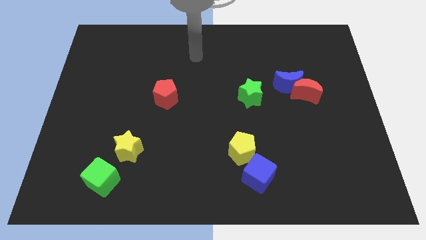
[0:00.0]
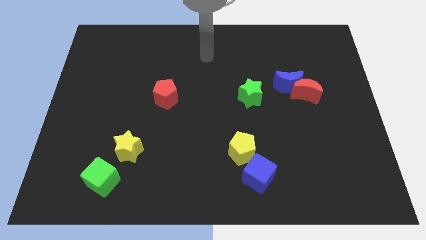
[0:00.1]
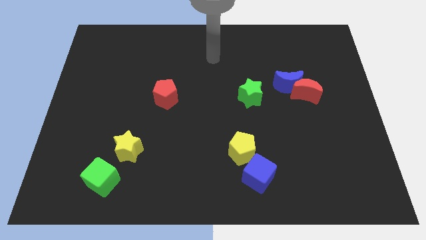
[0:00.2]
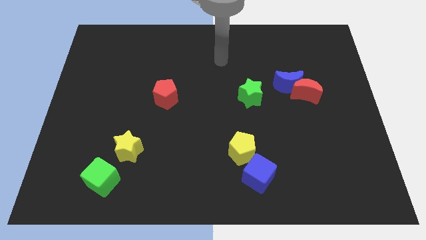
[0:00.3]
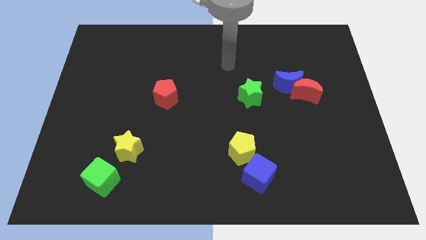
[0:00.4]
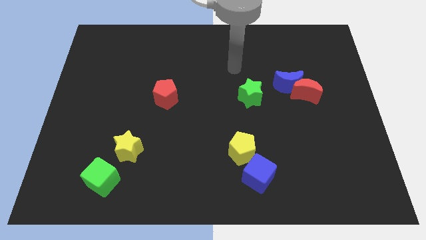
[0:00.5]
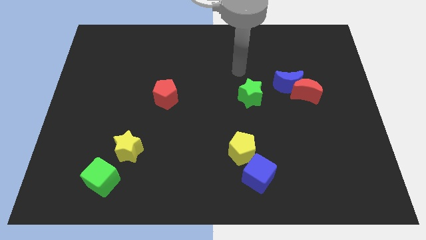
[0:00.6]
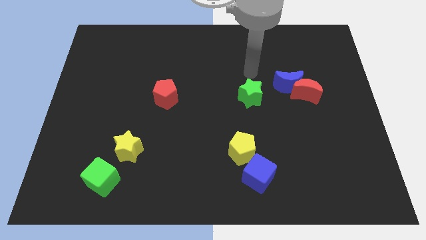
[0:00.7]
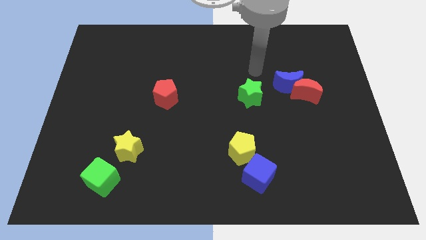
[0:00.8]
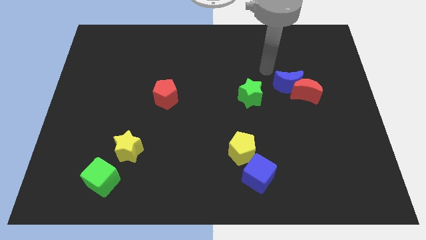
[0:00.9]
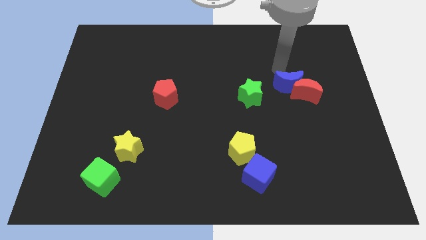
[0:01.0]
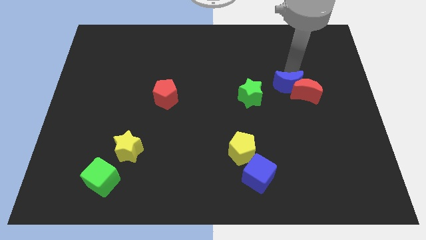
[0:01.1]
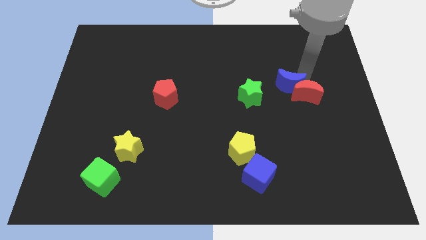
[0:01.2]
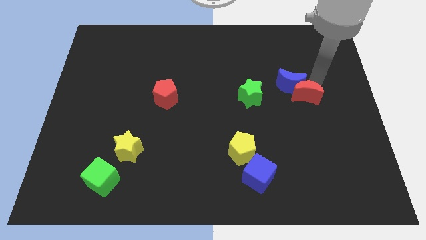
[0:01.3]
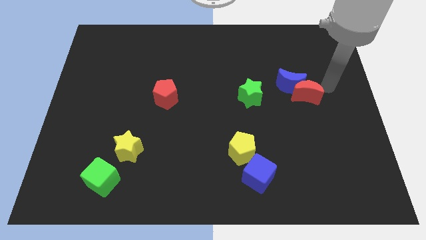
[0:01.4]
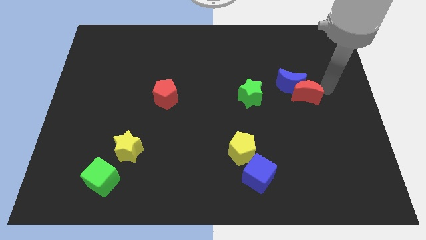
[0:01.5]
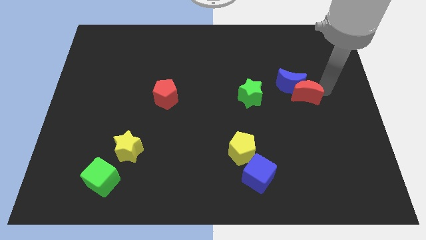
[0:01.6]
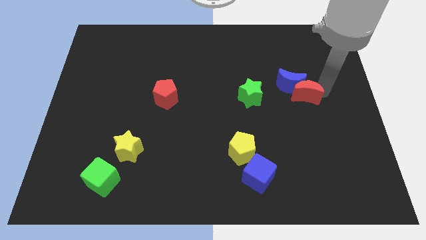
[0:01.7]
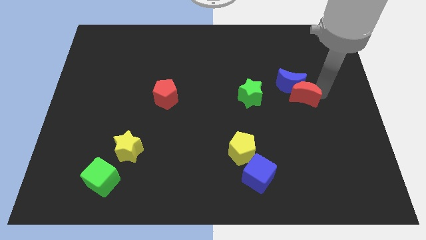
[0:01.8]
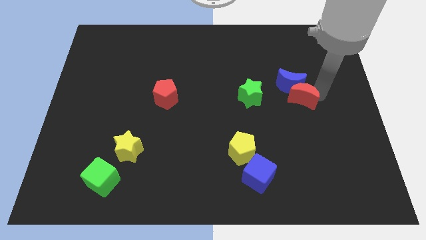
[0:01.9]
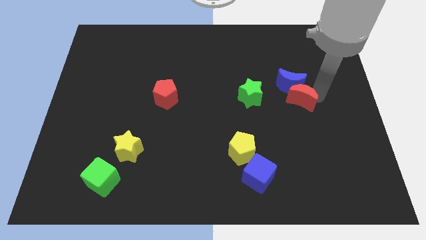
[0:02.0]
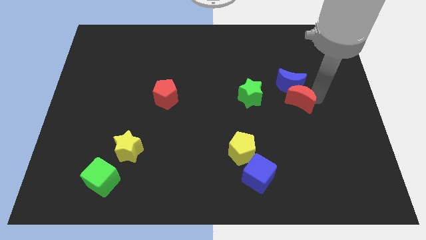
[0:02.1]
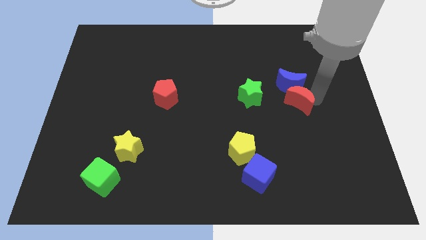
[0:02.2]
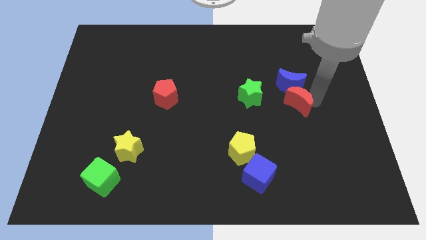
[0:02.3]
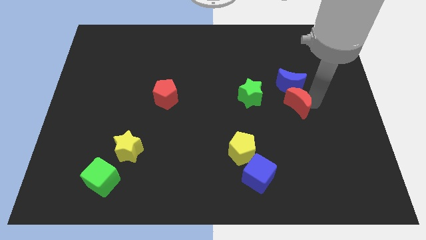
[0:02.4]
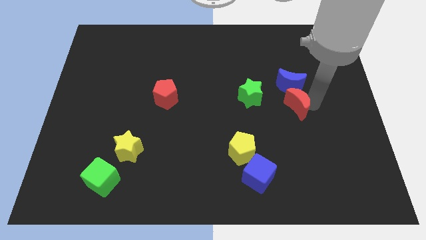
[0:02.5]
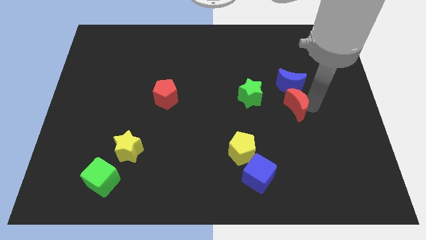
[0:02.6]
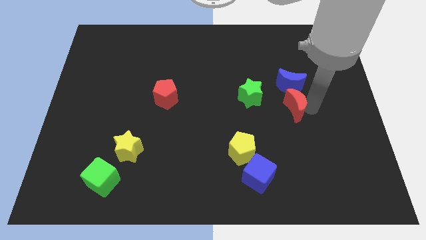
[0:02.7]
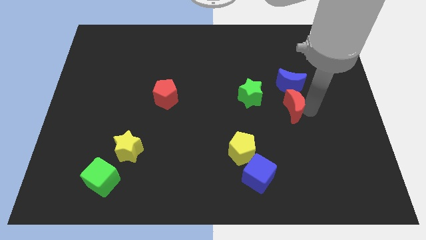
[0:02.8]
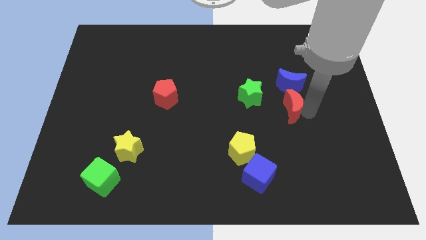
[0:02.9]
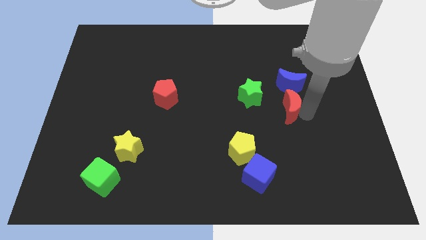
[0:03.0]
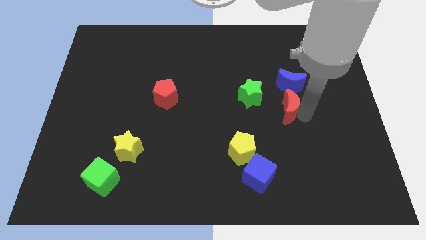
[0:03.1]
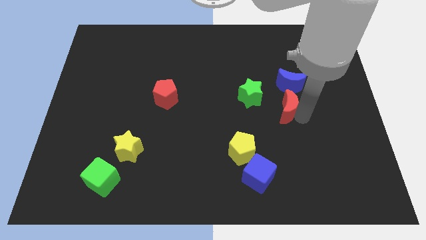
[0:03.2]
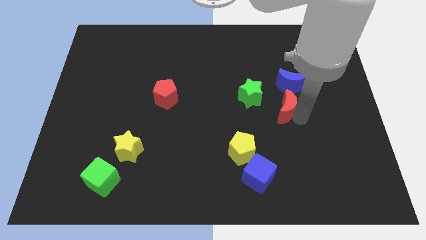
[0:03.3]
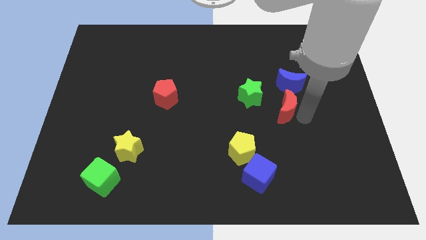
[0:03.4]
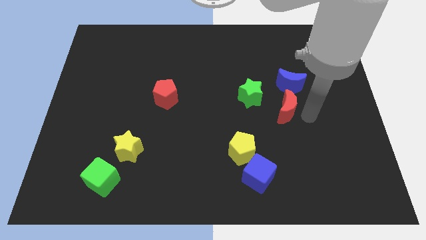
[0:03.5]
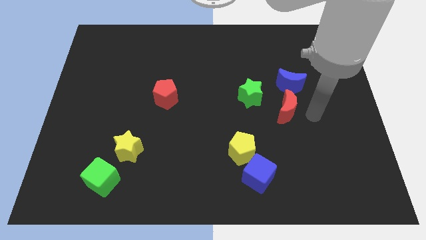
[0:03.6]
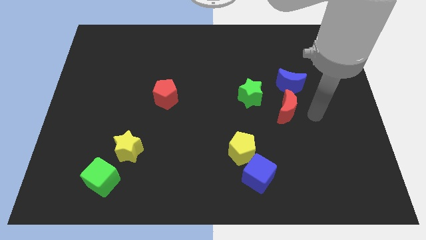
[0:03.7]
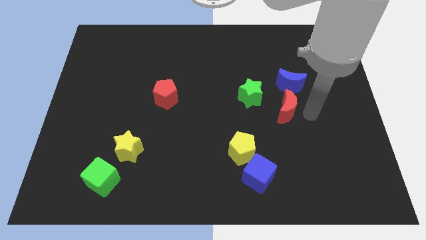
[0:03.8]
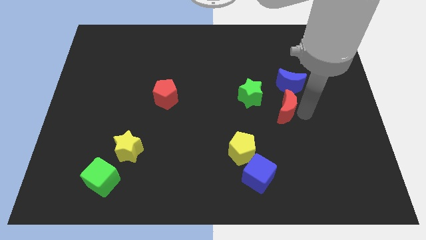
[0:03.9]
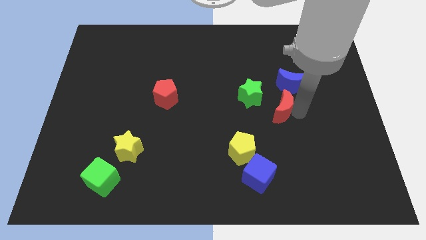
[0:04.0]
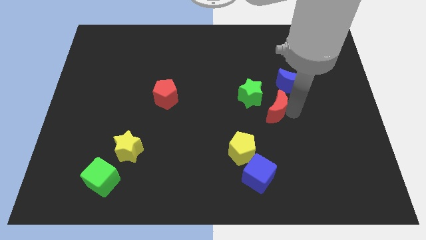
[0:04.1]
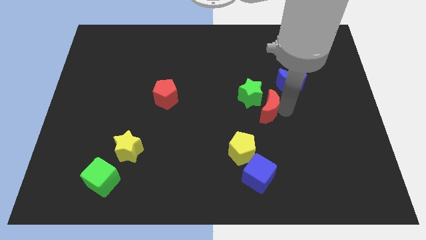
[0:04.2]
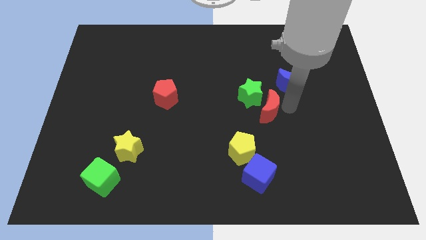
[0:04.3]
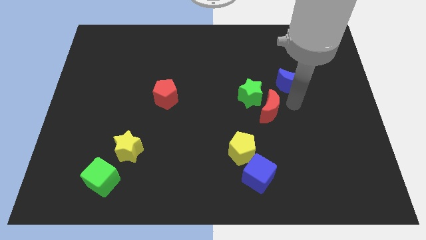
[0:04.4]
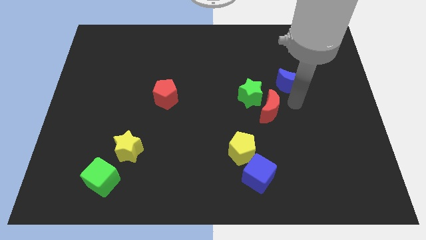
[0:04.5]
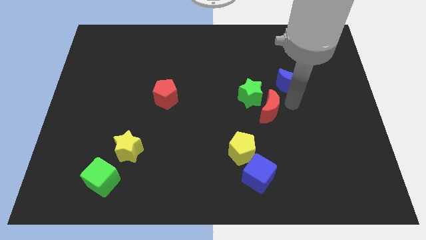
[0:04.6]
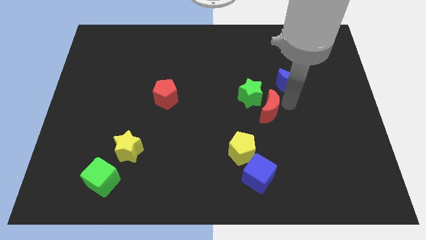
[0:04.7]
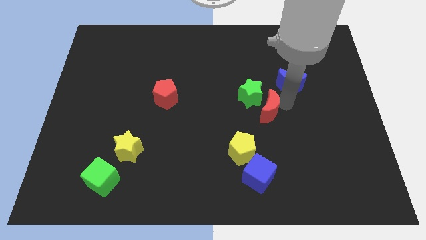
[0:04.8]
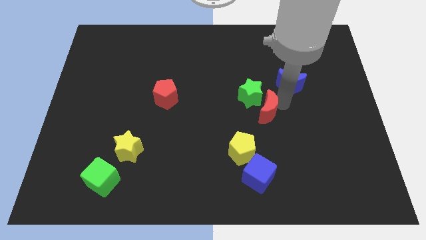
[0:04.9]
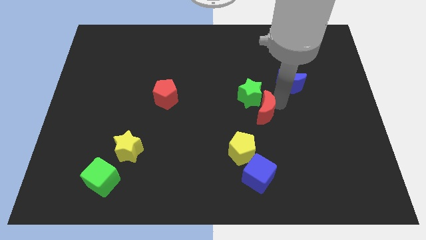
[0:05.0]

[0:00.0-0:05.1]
push the red moon to the middle of the board
